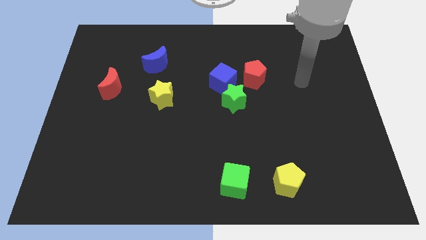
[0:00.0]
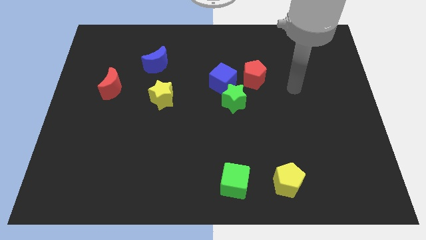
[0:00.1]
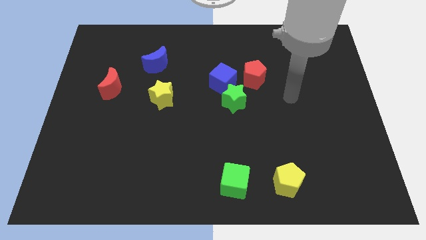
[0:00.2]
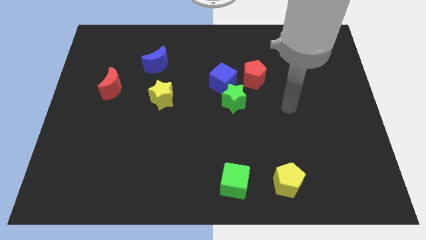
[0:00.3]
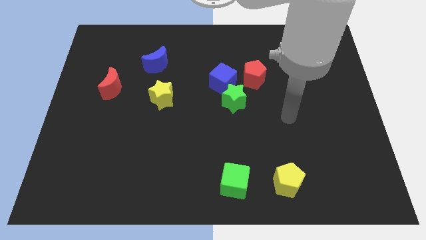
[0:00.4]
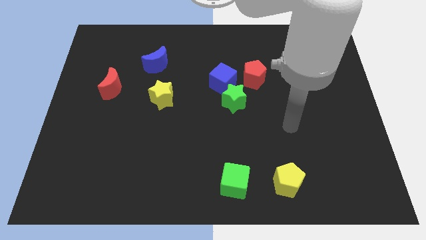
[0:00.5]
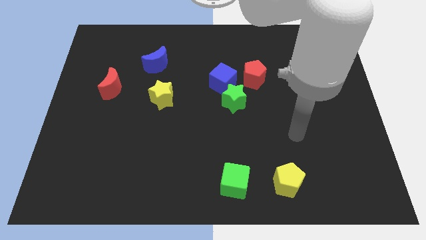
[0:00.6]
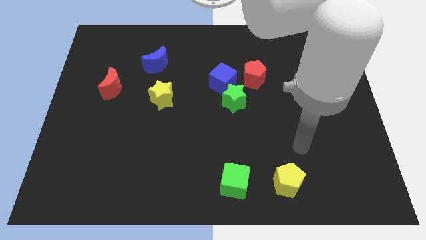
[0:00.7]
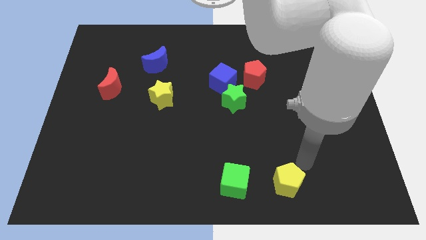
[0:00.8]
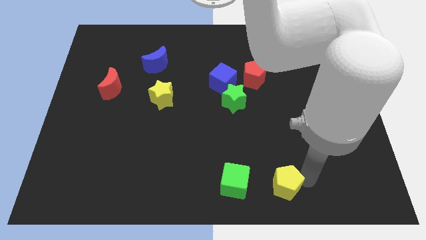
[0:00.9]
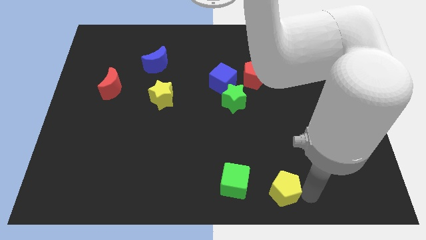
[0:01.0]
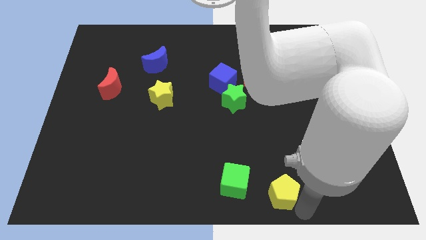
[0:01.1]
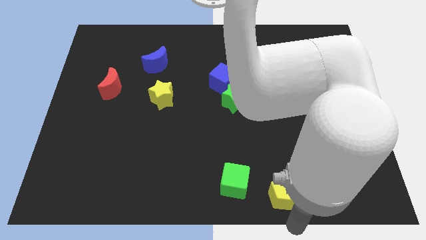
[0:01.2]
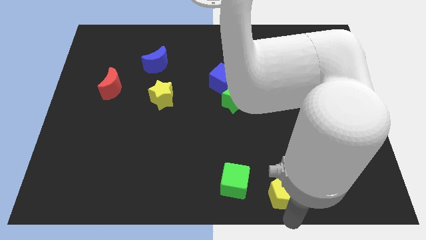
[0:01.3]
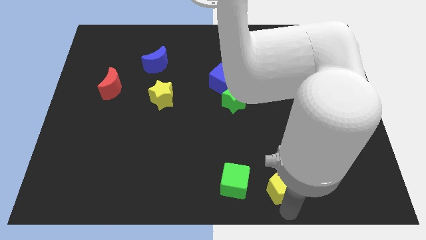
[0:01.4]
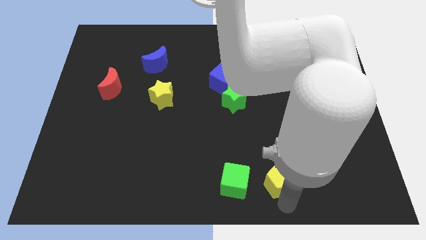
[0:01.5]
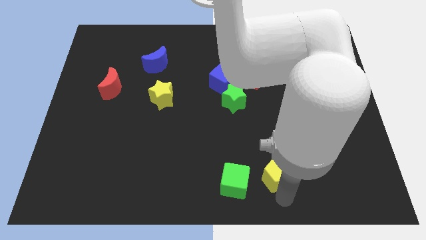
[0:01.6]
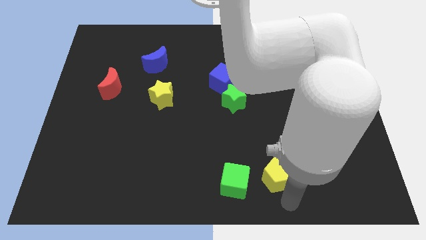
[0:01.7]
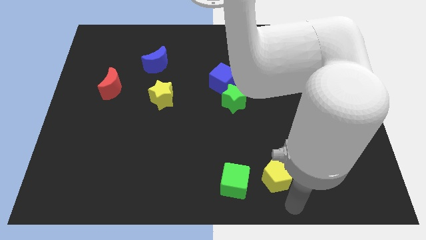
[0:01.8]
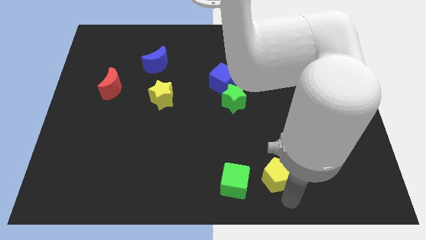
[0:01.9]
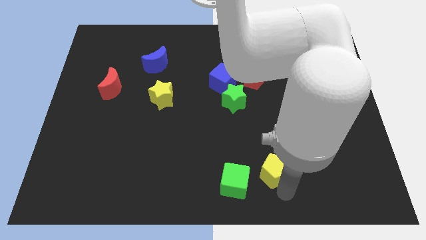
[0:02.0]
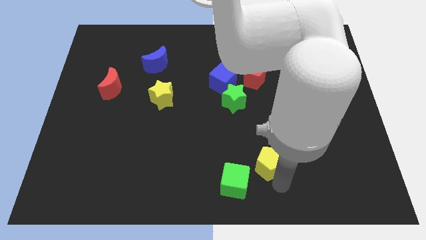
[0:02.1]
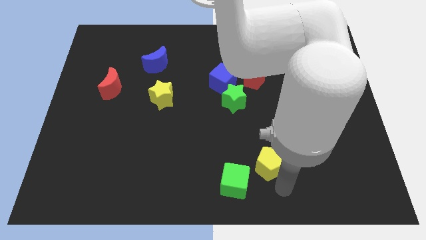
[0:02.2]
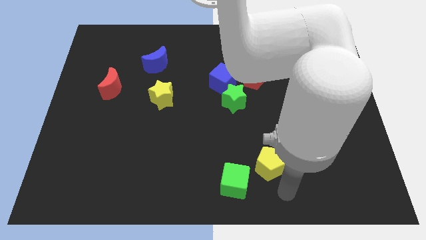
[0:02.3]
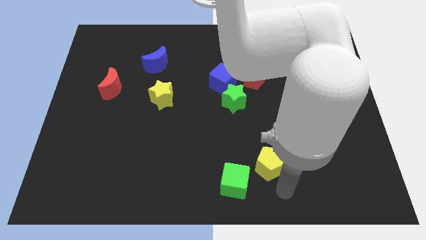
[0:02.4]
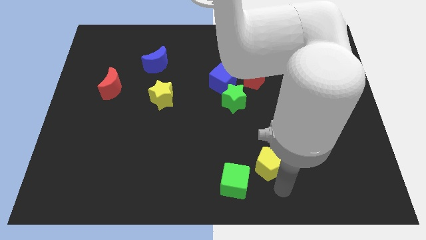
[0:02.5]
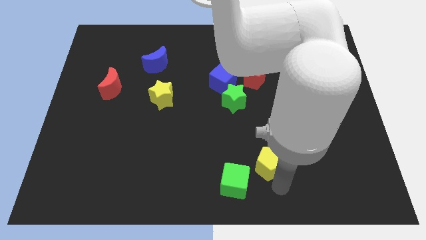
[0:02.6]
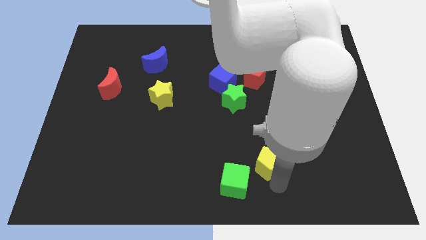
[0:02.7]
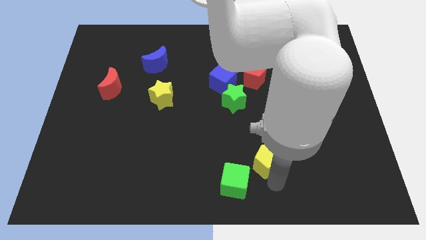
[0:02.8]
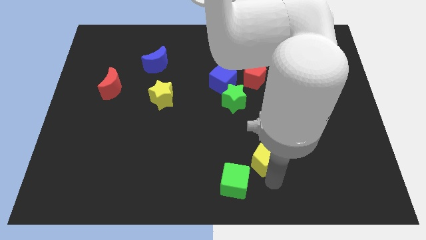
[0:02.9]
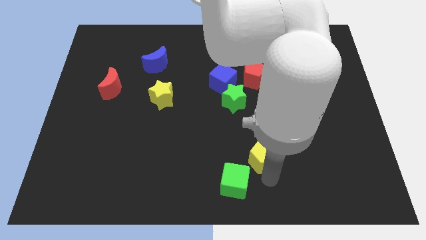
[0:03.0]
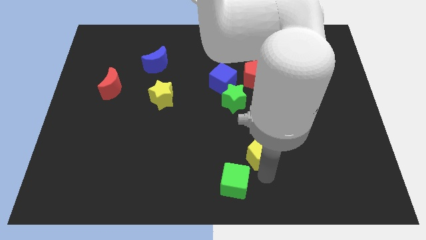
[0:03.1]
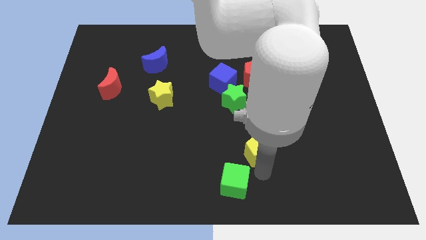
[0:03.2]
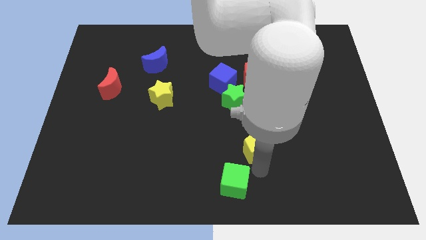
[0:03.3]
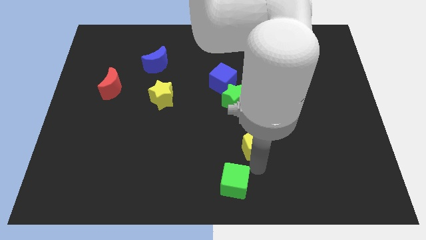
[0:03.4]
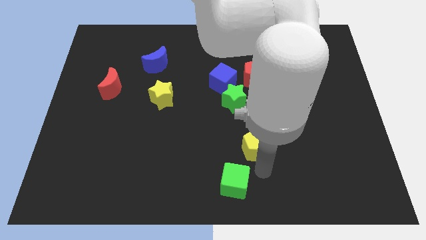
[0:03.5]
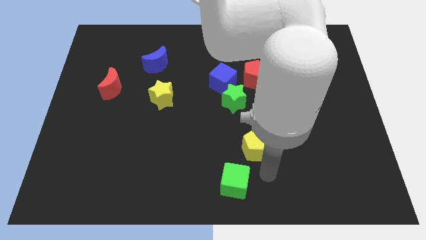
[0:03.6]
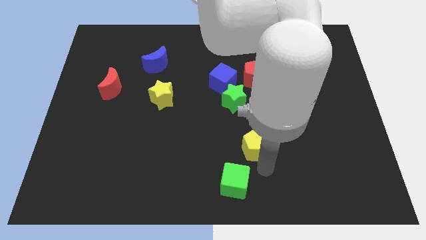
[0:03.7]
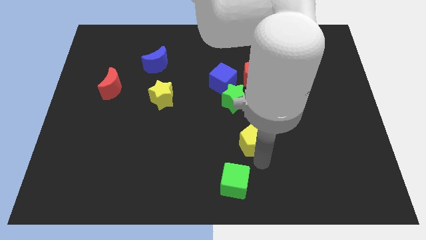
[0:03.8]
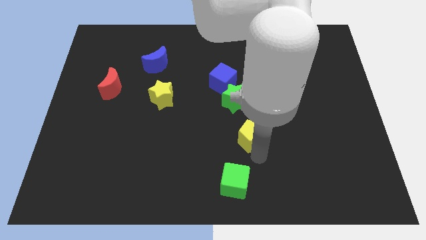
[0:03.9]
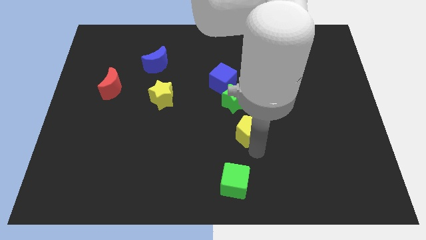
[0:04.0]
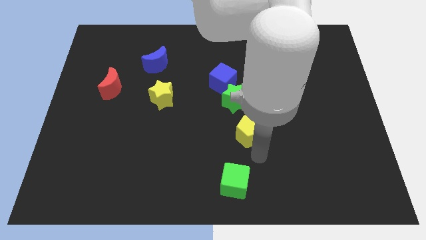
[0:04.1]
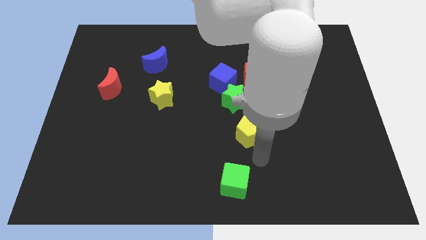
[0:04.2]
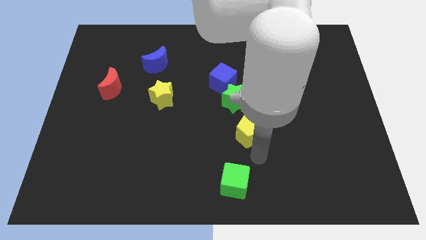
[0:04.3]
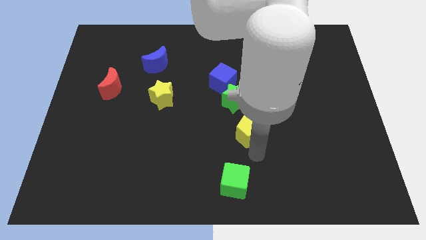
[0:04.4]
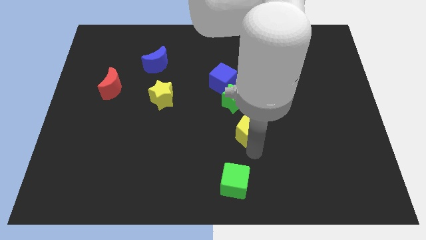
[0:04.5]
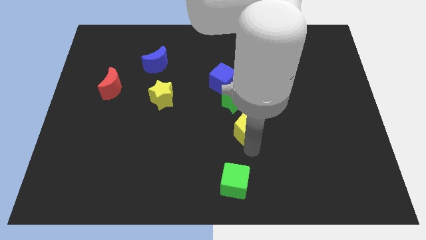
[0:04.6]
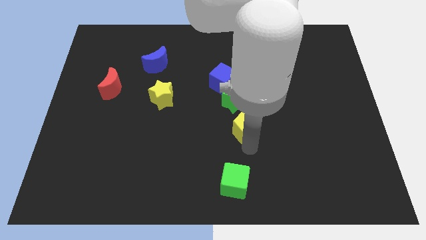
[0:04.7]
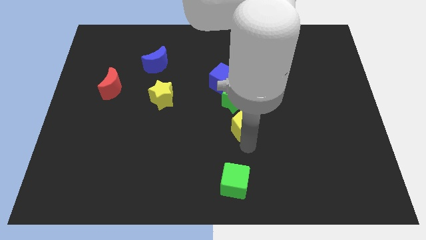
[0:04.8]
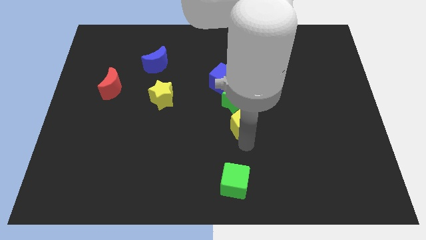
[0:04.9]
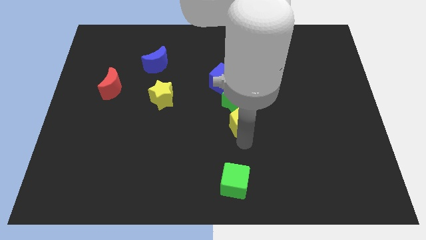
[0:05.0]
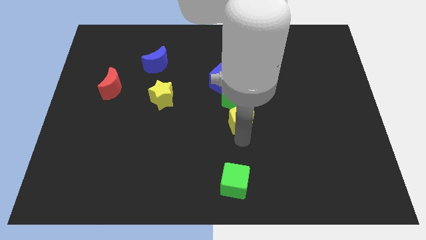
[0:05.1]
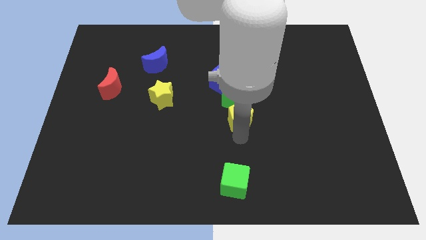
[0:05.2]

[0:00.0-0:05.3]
slide the yellow pentagon close to the green star

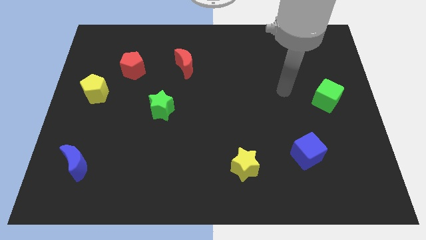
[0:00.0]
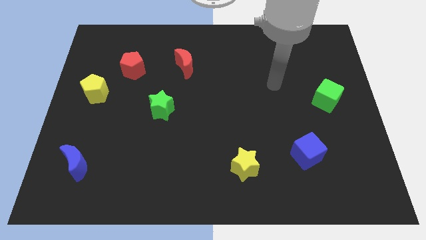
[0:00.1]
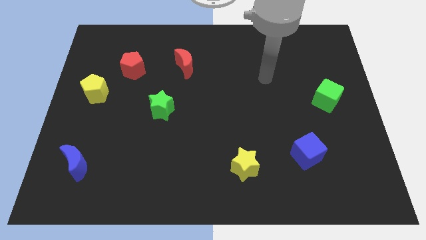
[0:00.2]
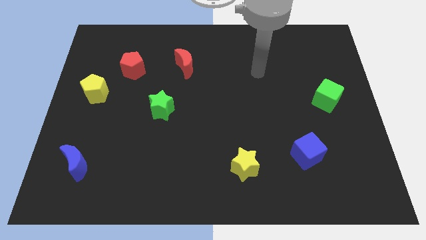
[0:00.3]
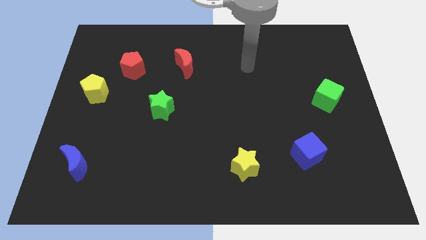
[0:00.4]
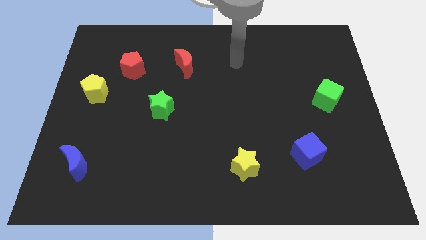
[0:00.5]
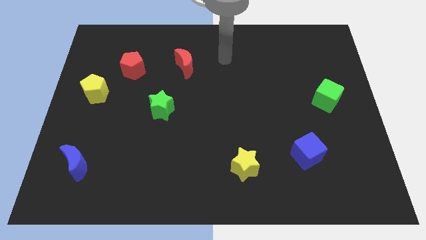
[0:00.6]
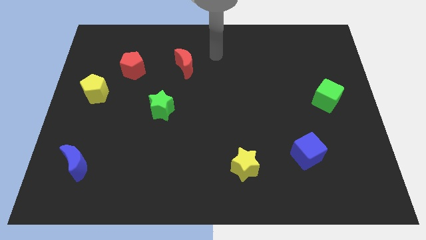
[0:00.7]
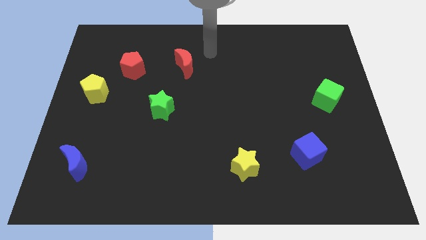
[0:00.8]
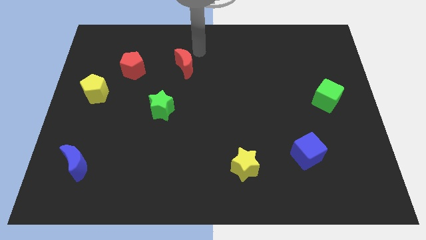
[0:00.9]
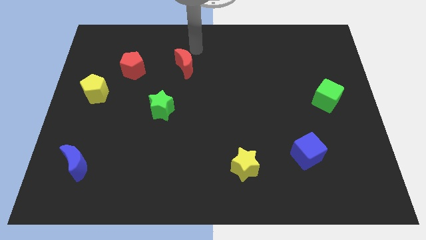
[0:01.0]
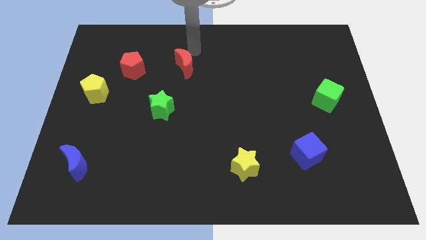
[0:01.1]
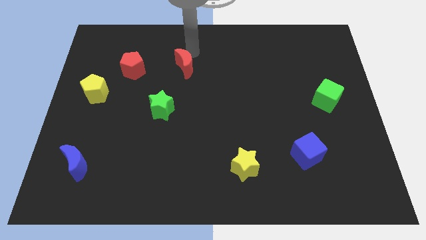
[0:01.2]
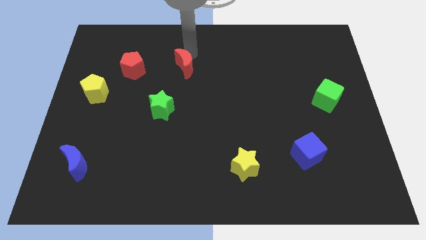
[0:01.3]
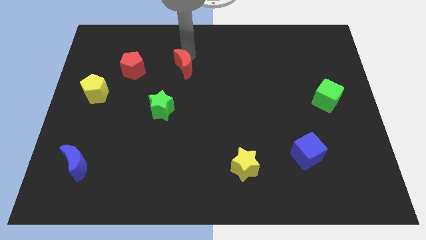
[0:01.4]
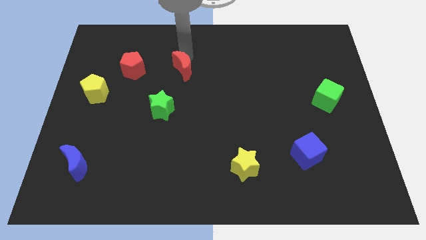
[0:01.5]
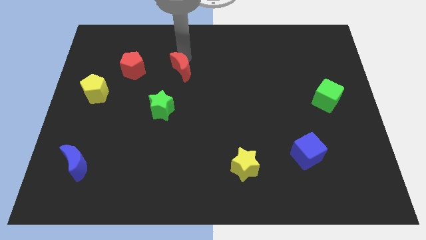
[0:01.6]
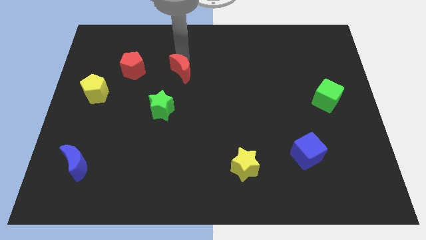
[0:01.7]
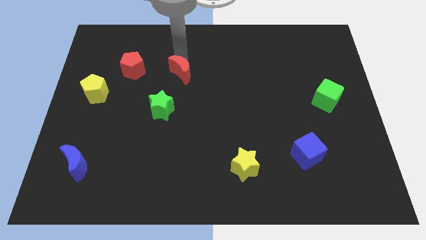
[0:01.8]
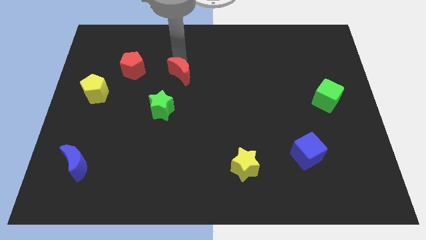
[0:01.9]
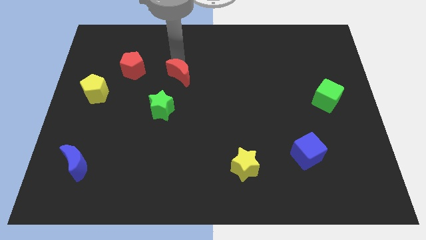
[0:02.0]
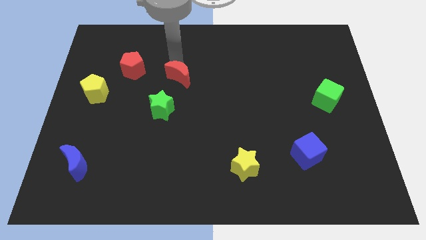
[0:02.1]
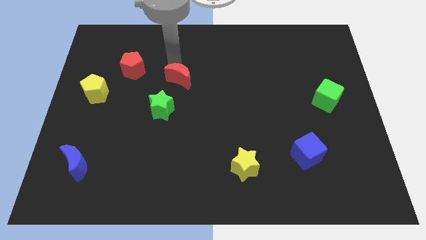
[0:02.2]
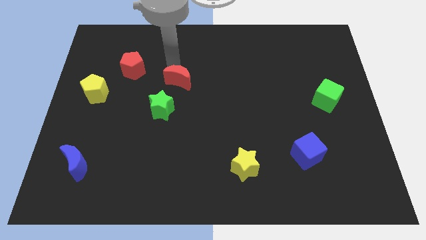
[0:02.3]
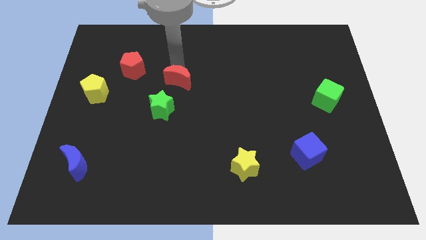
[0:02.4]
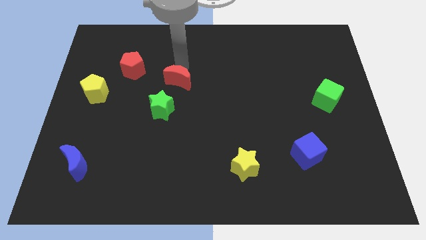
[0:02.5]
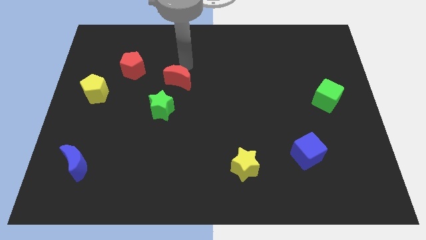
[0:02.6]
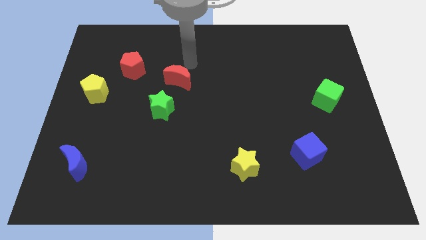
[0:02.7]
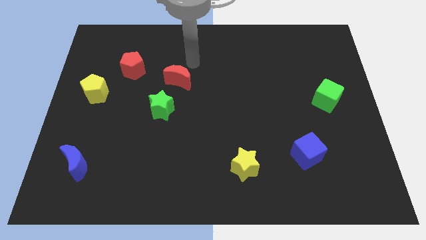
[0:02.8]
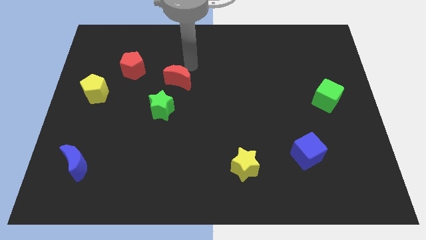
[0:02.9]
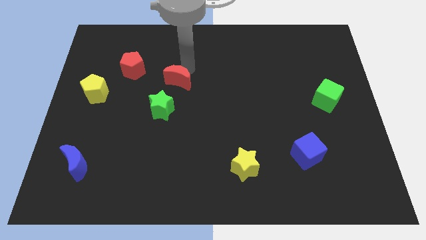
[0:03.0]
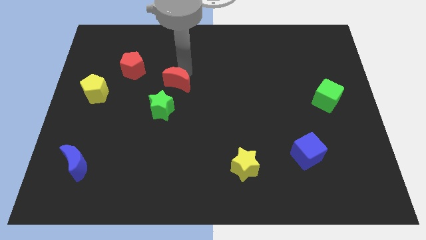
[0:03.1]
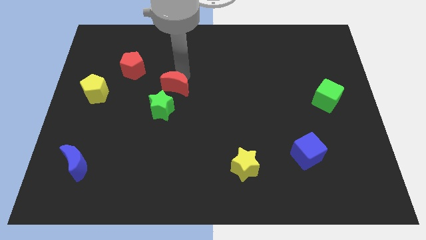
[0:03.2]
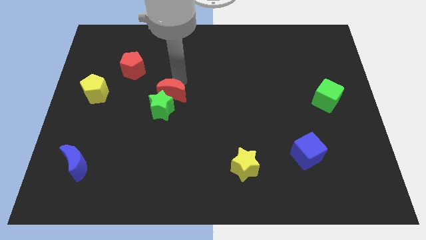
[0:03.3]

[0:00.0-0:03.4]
put the red moon to the green star
